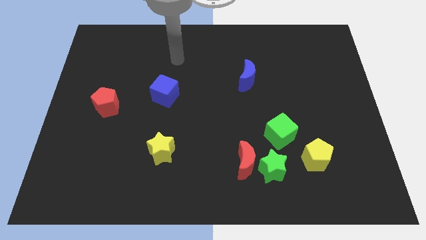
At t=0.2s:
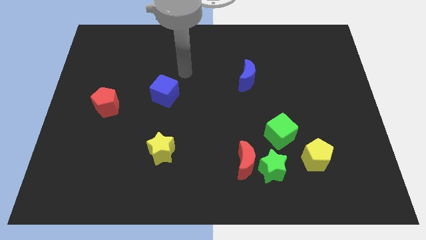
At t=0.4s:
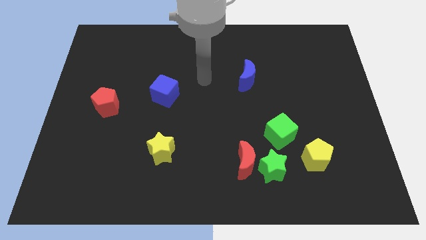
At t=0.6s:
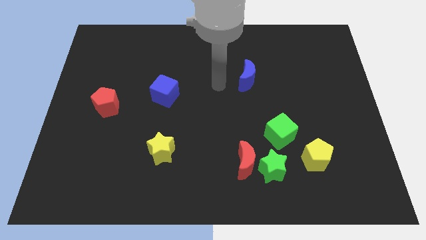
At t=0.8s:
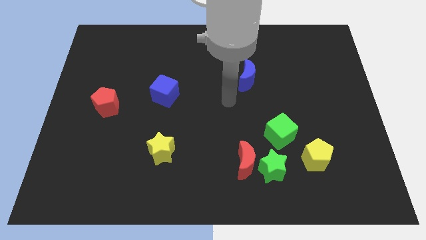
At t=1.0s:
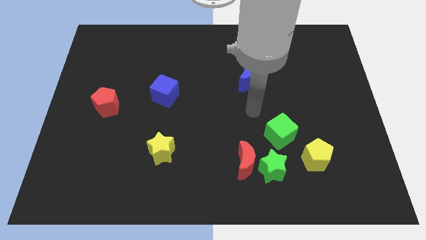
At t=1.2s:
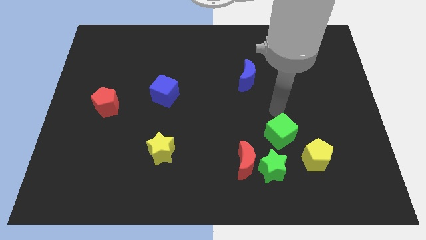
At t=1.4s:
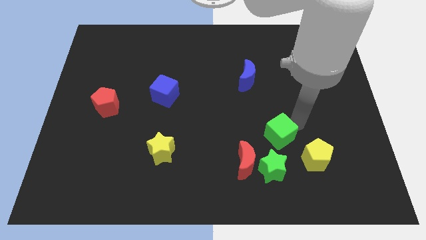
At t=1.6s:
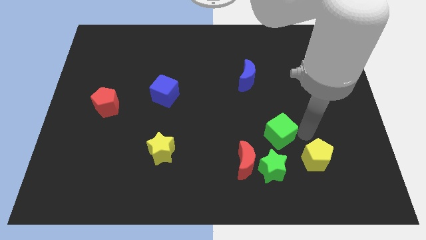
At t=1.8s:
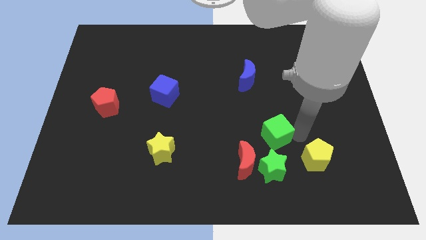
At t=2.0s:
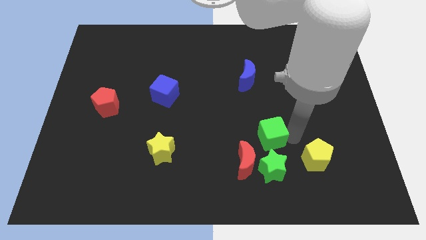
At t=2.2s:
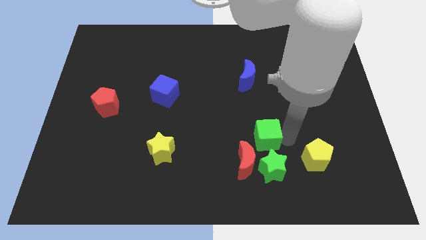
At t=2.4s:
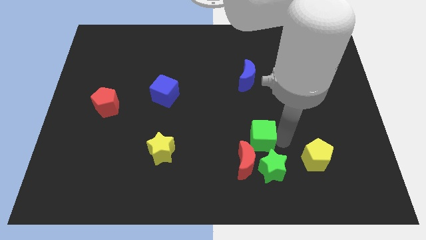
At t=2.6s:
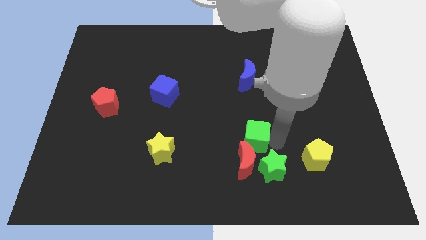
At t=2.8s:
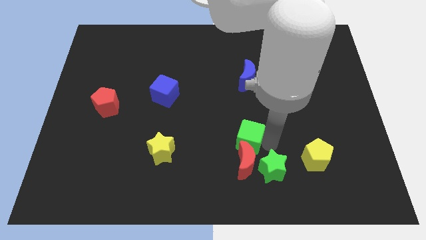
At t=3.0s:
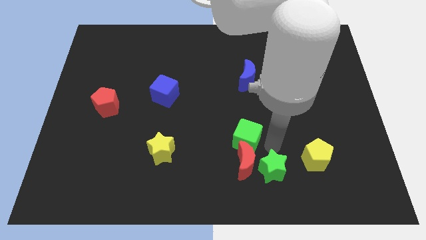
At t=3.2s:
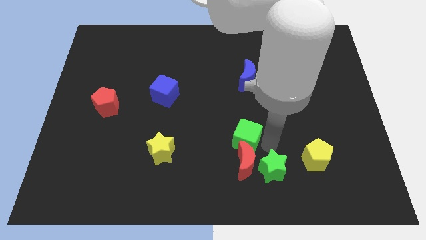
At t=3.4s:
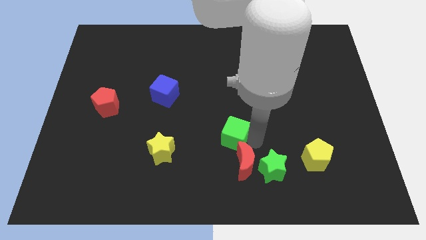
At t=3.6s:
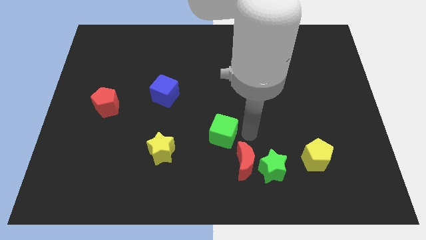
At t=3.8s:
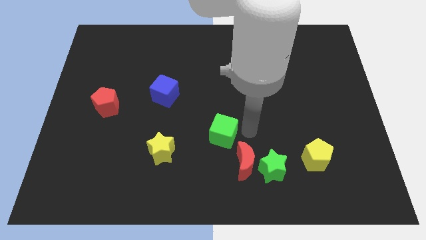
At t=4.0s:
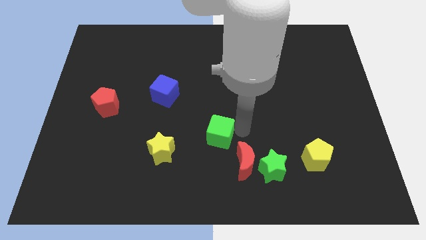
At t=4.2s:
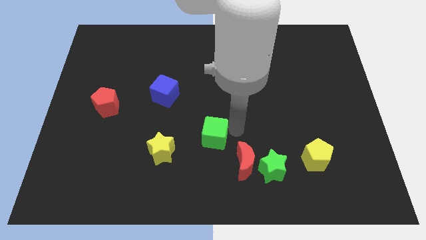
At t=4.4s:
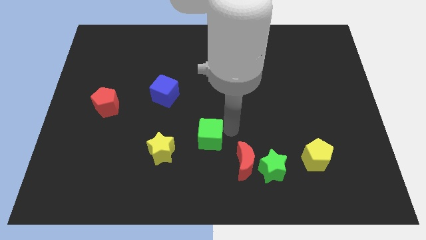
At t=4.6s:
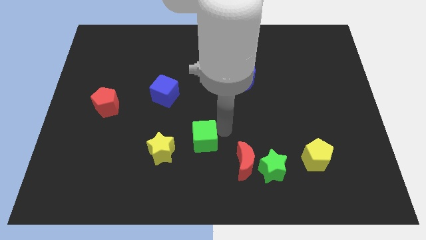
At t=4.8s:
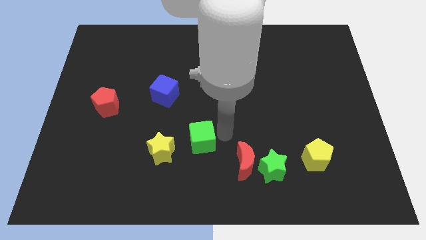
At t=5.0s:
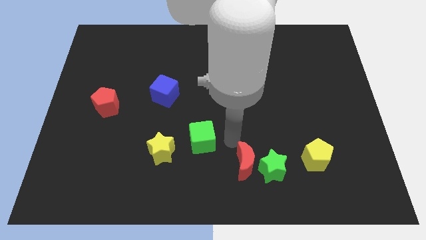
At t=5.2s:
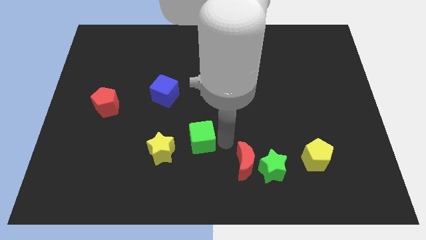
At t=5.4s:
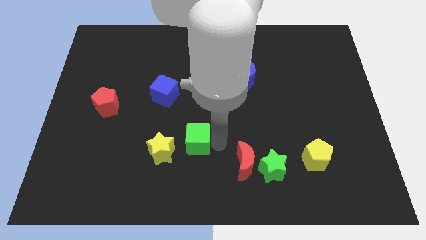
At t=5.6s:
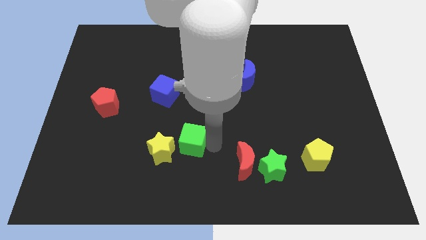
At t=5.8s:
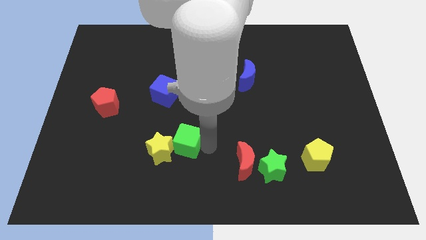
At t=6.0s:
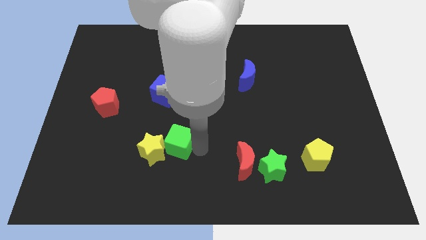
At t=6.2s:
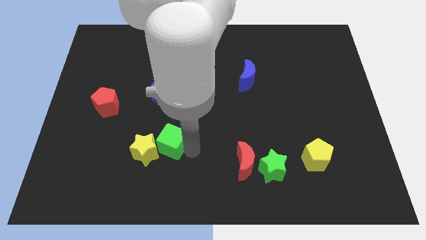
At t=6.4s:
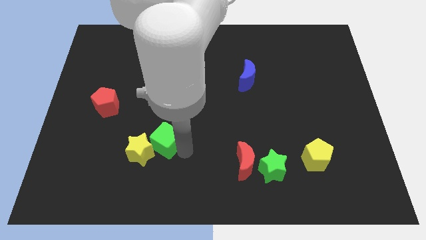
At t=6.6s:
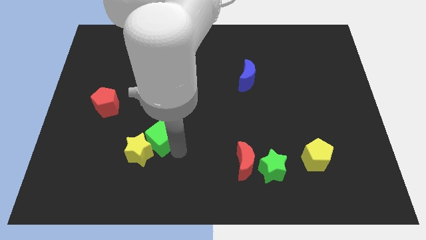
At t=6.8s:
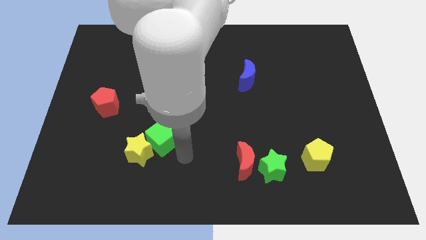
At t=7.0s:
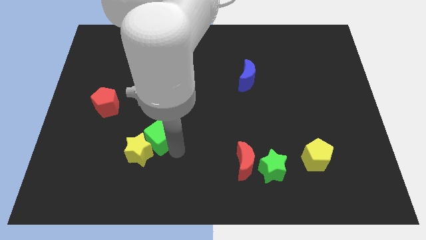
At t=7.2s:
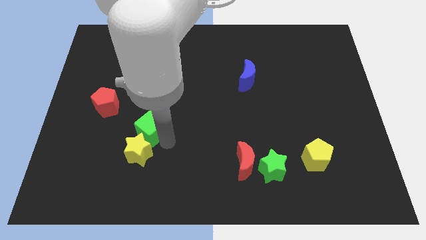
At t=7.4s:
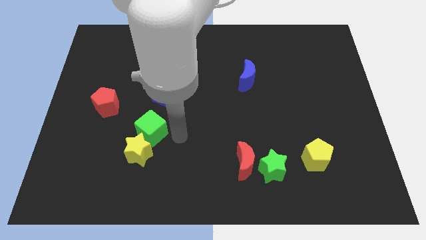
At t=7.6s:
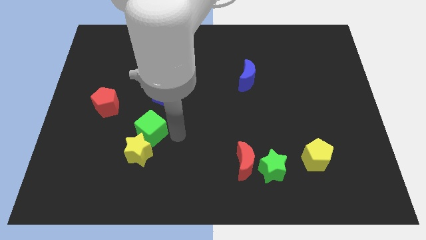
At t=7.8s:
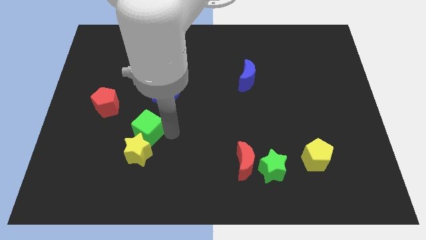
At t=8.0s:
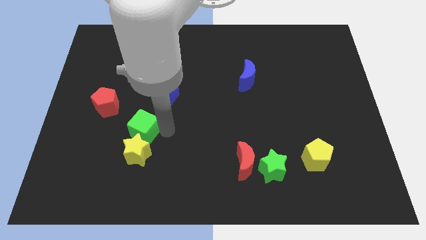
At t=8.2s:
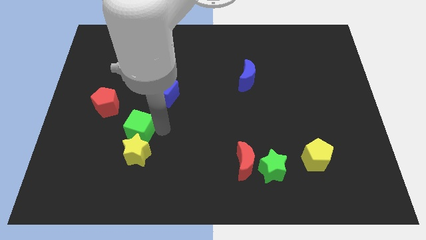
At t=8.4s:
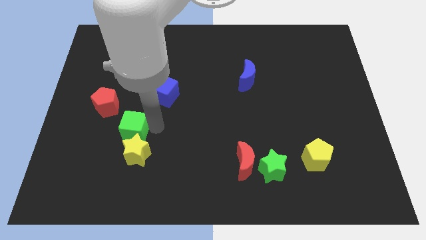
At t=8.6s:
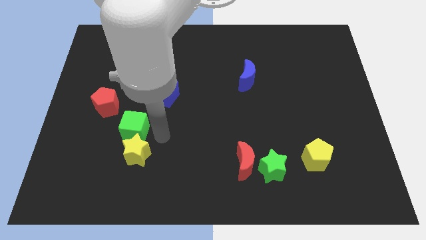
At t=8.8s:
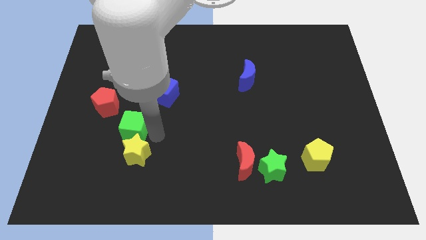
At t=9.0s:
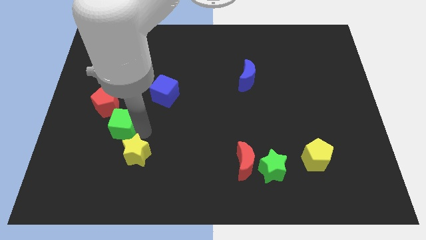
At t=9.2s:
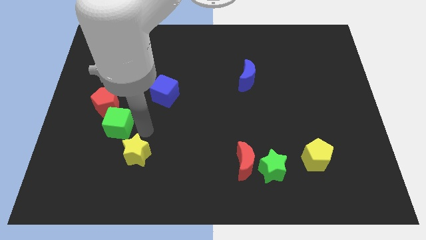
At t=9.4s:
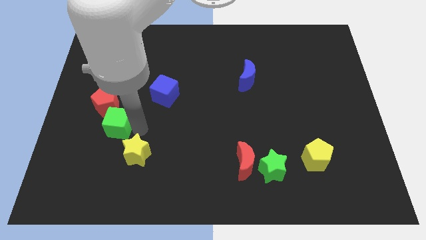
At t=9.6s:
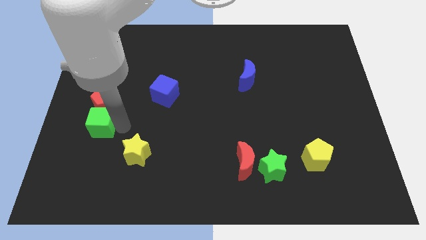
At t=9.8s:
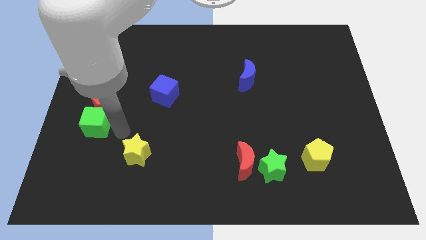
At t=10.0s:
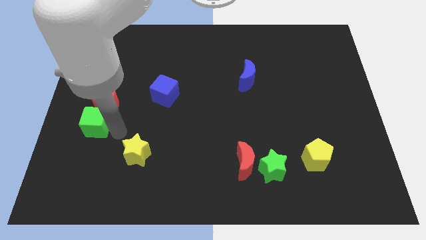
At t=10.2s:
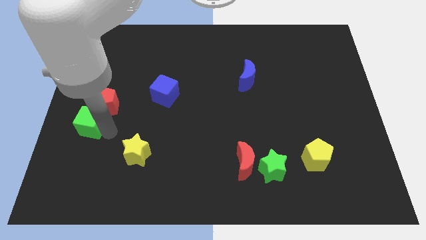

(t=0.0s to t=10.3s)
put the green cube to the left side of the board

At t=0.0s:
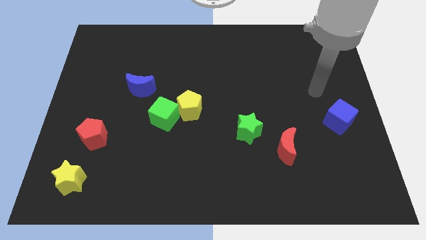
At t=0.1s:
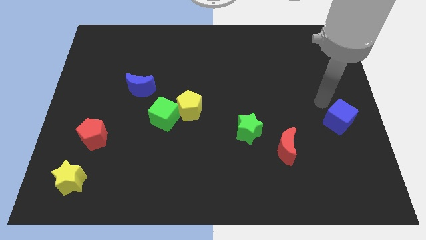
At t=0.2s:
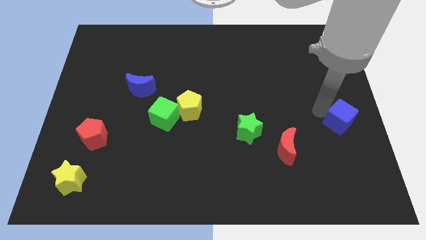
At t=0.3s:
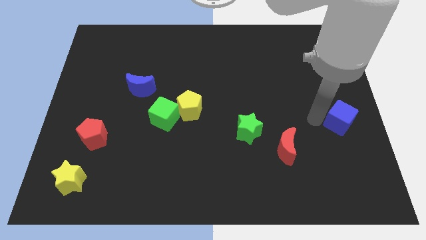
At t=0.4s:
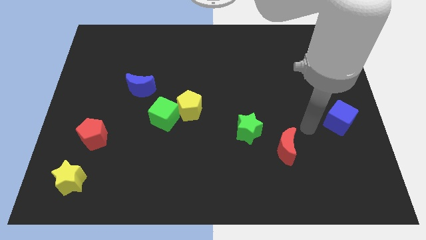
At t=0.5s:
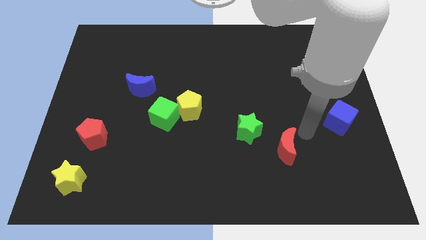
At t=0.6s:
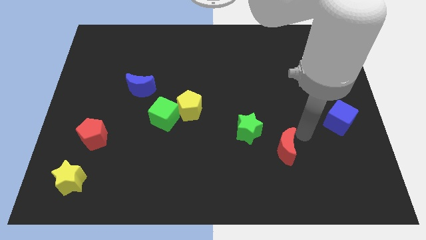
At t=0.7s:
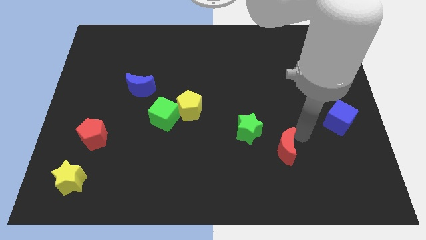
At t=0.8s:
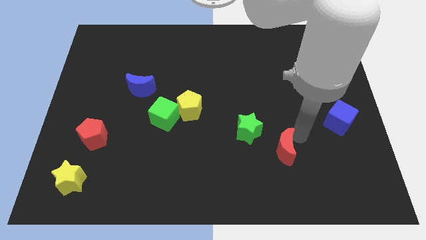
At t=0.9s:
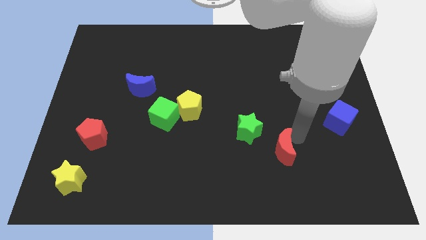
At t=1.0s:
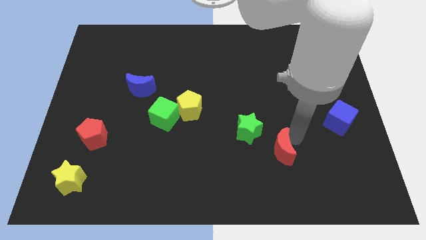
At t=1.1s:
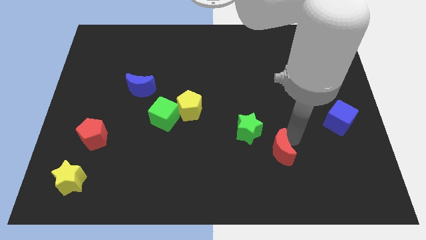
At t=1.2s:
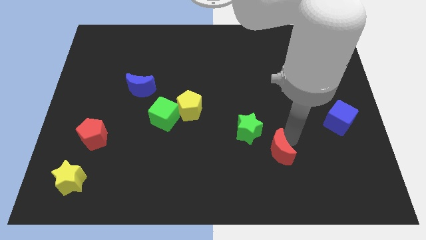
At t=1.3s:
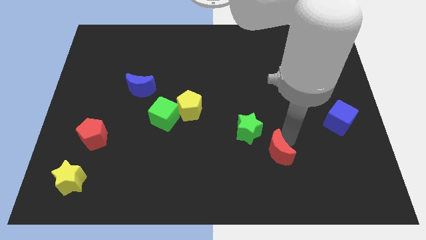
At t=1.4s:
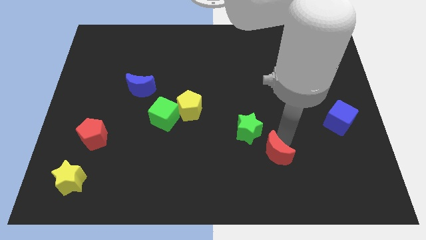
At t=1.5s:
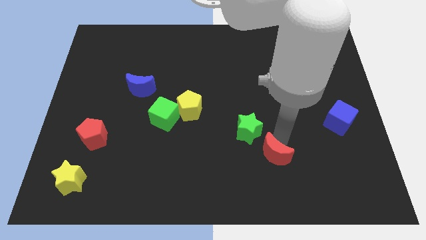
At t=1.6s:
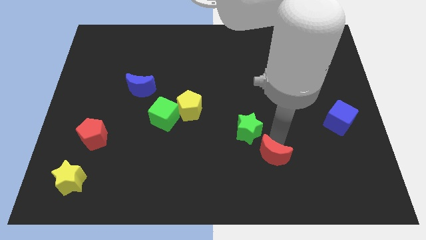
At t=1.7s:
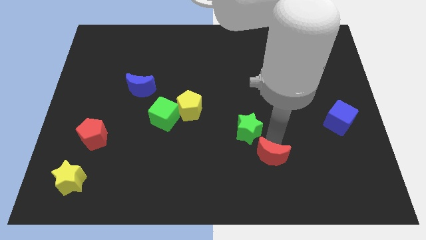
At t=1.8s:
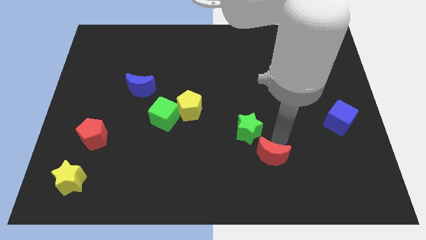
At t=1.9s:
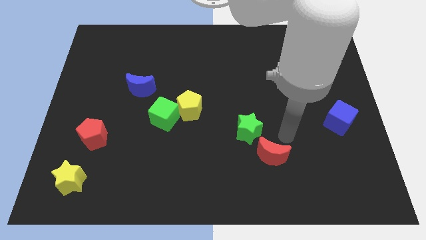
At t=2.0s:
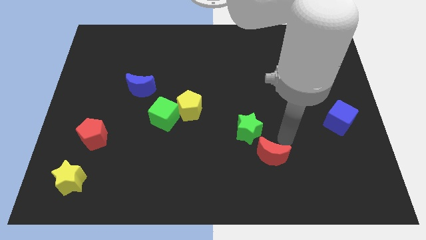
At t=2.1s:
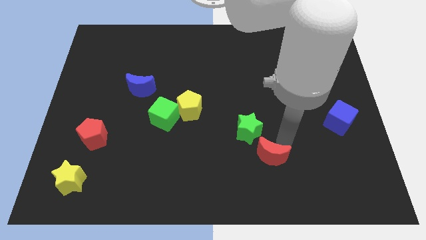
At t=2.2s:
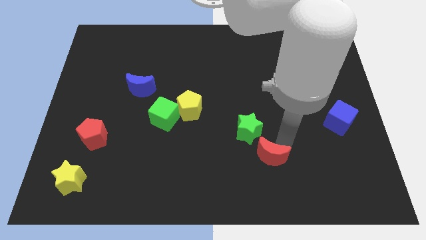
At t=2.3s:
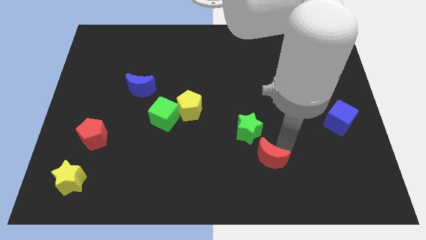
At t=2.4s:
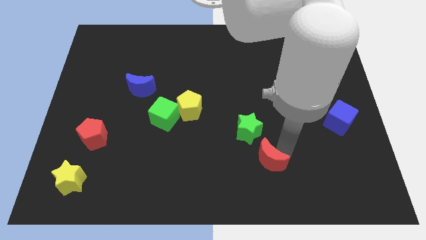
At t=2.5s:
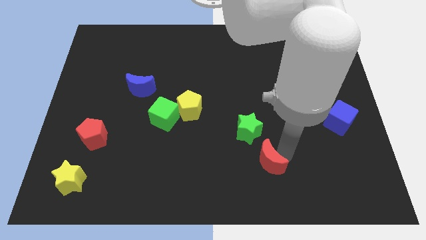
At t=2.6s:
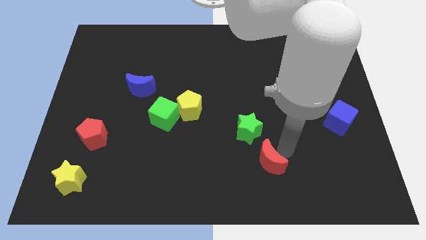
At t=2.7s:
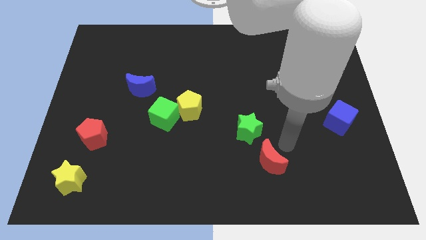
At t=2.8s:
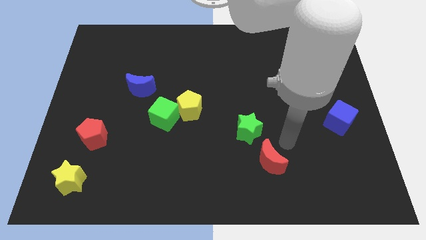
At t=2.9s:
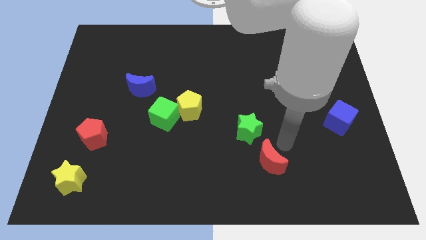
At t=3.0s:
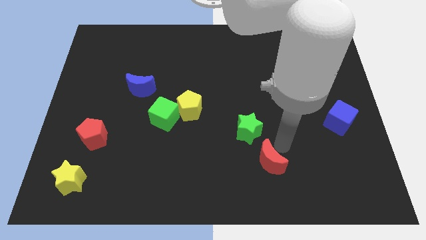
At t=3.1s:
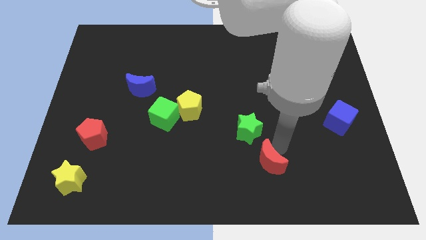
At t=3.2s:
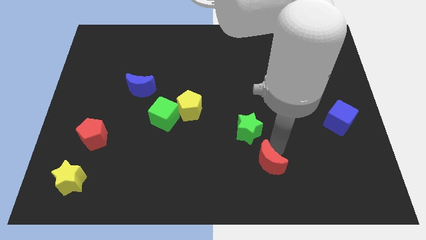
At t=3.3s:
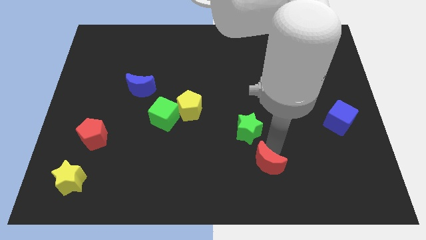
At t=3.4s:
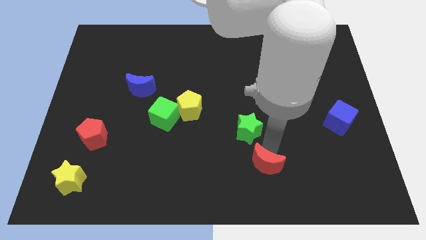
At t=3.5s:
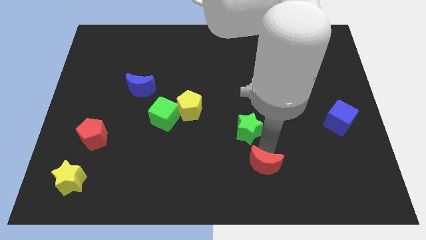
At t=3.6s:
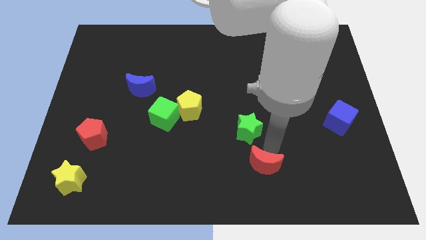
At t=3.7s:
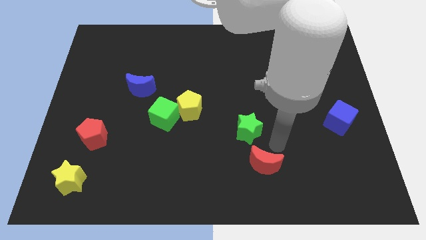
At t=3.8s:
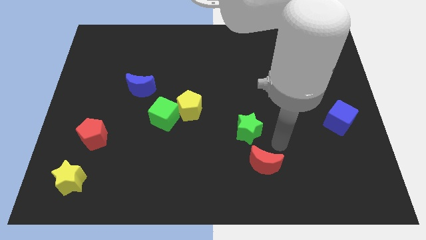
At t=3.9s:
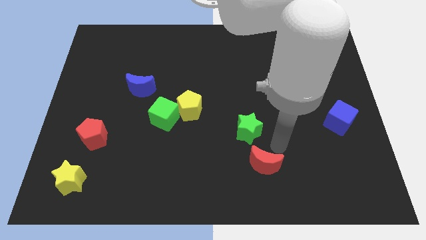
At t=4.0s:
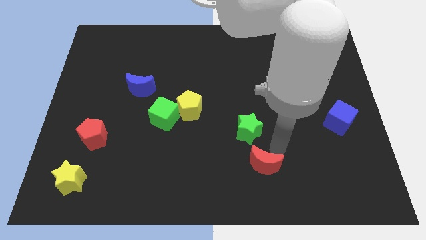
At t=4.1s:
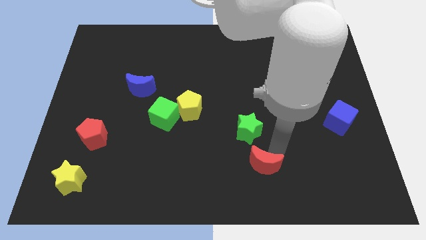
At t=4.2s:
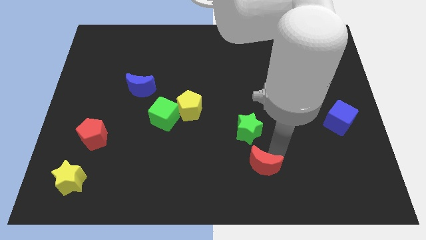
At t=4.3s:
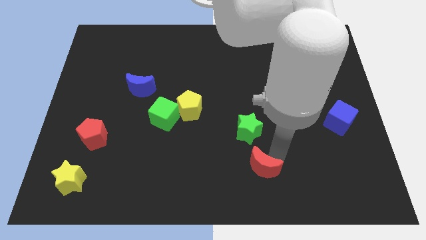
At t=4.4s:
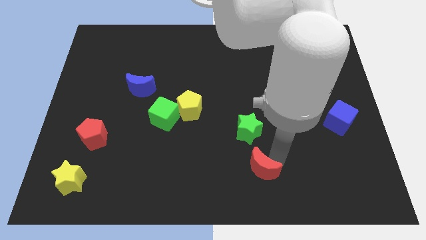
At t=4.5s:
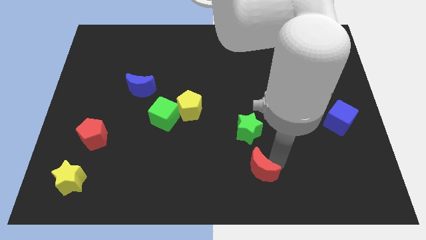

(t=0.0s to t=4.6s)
push the red moon to the bottom
